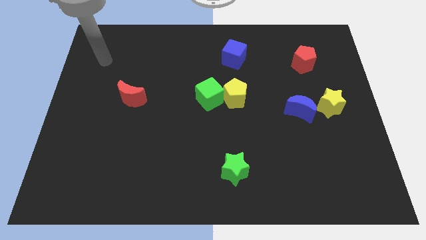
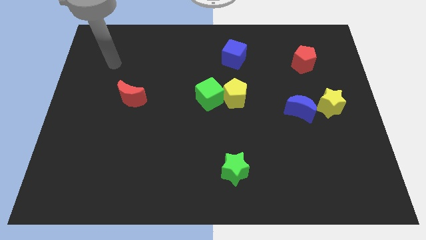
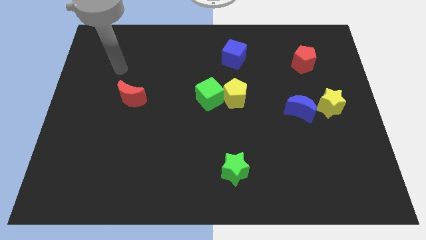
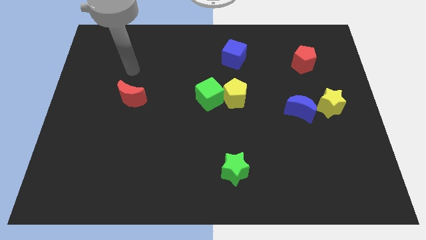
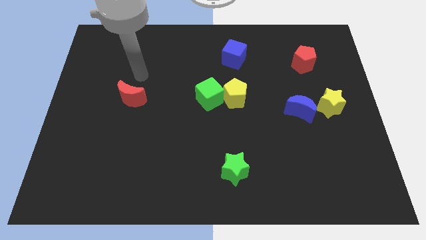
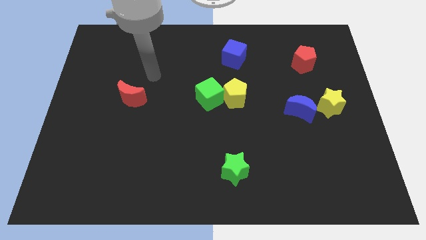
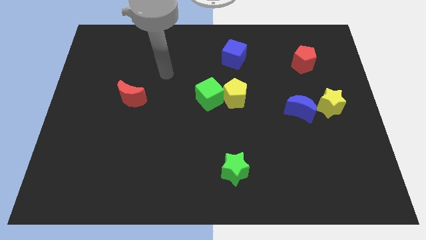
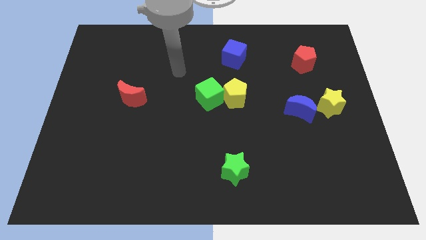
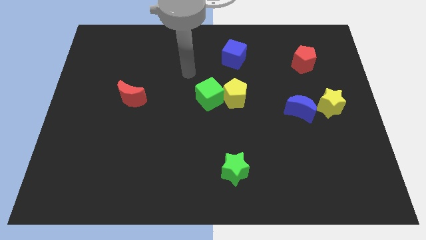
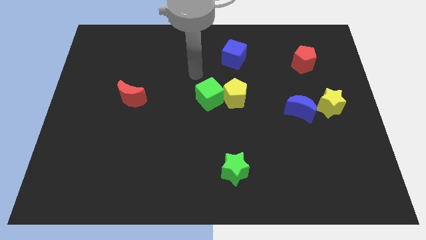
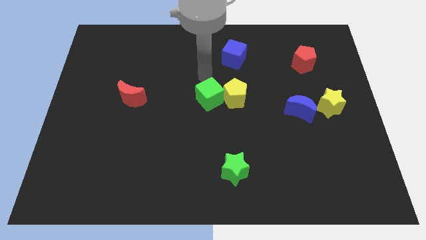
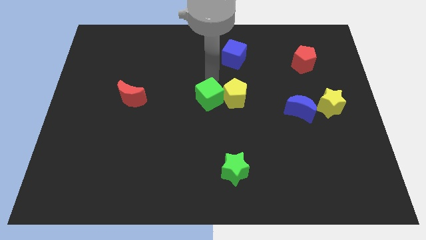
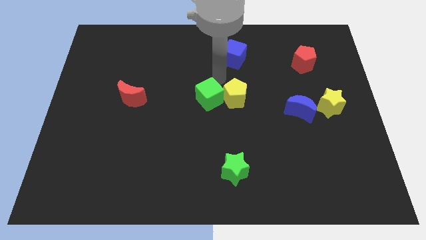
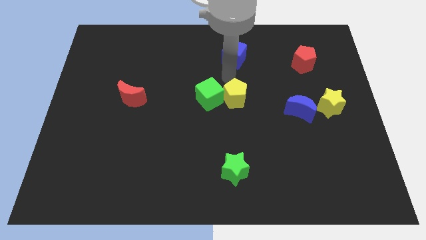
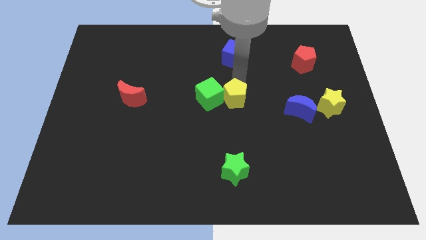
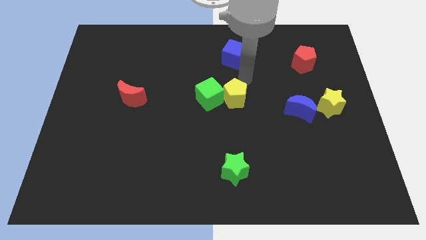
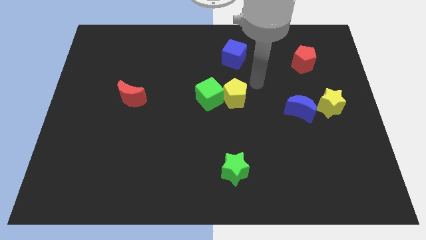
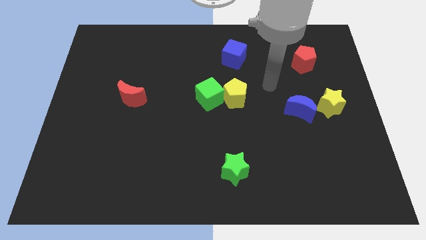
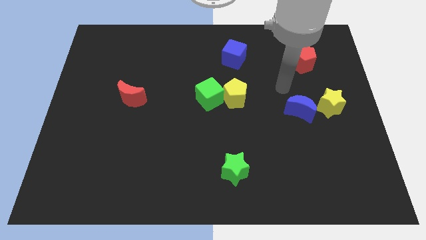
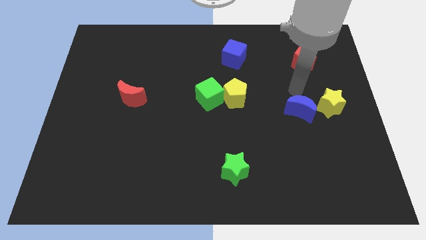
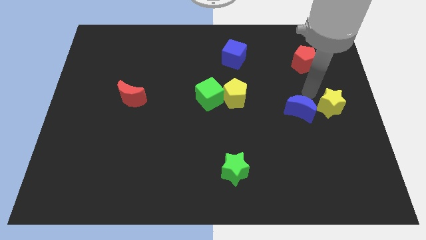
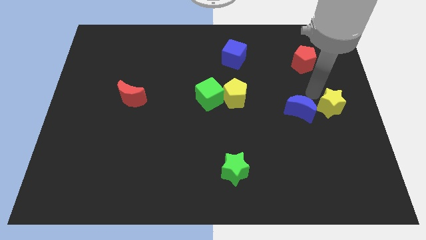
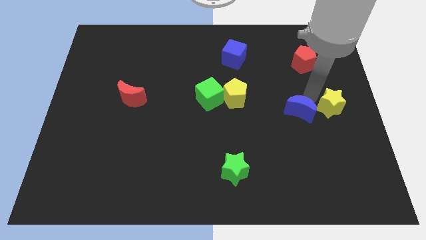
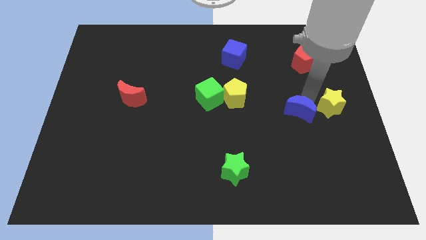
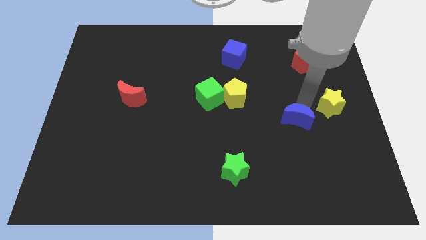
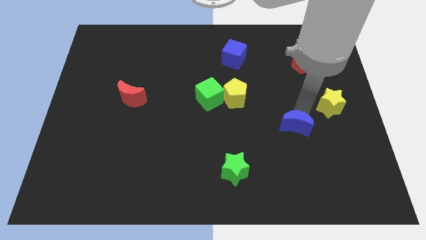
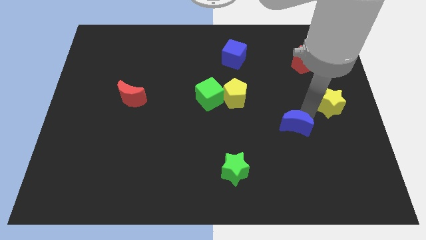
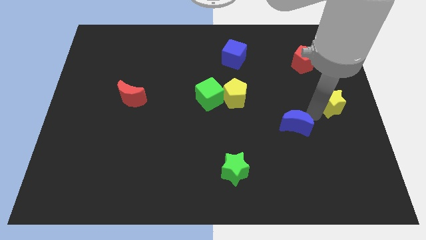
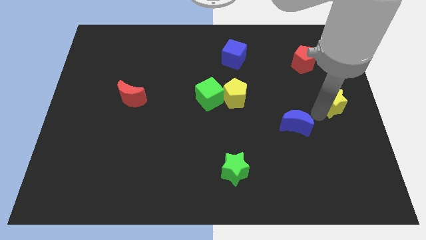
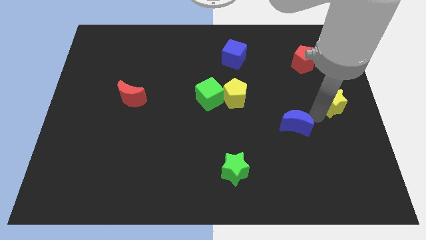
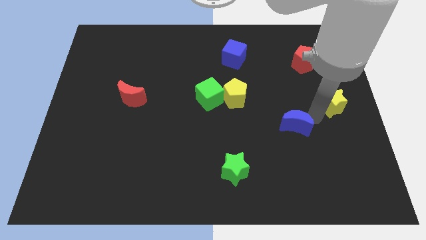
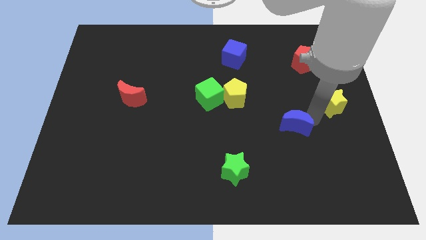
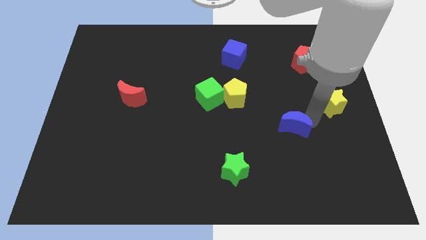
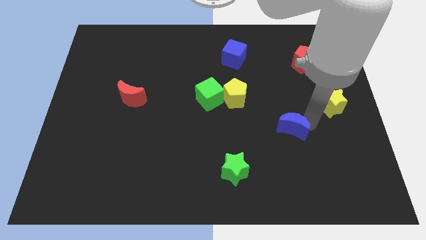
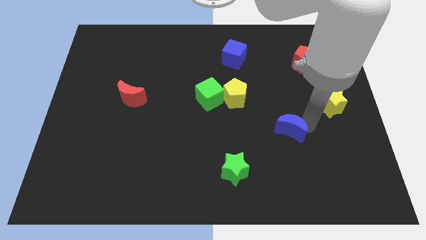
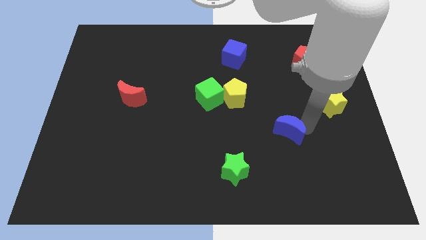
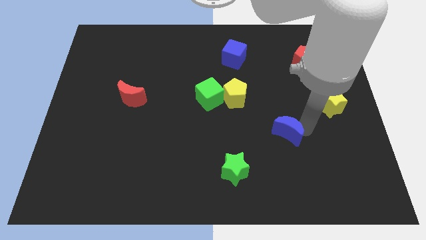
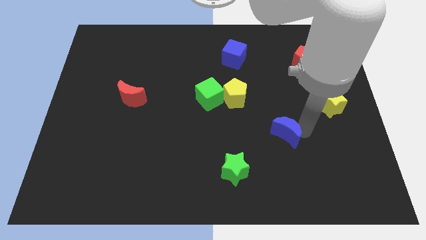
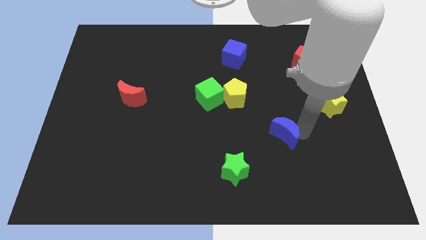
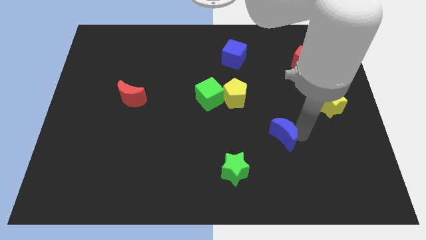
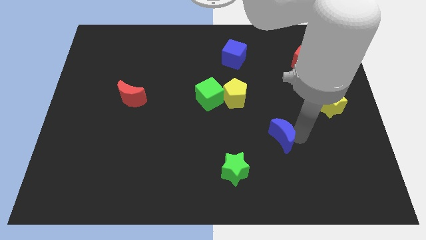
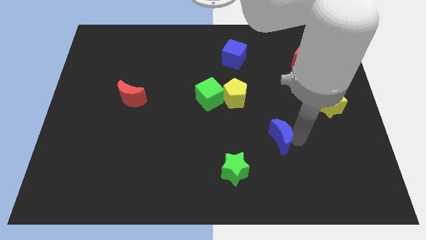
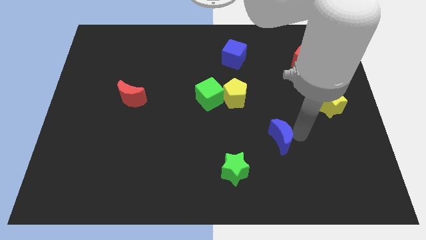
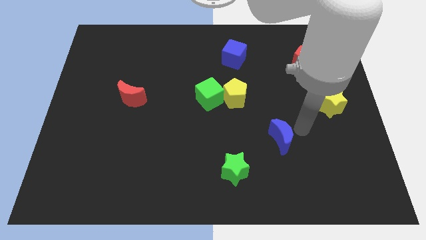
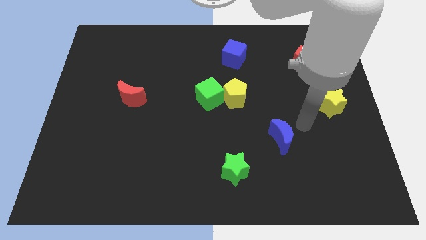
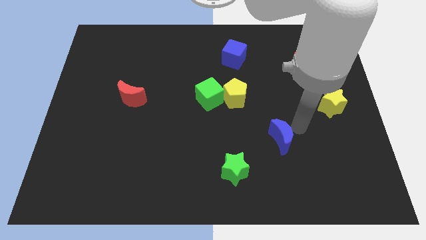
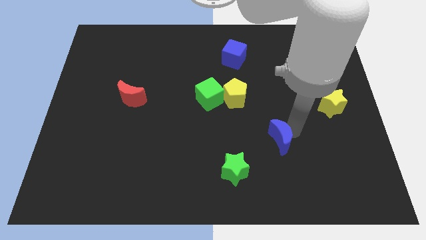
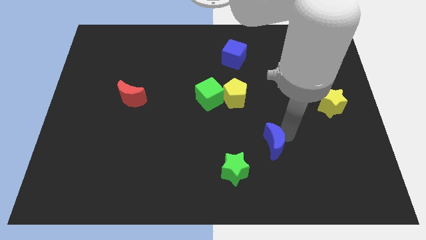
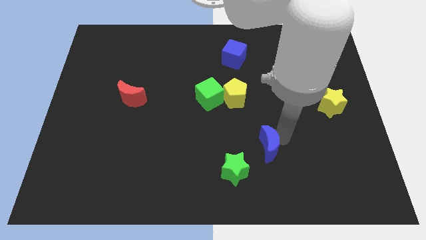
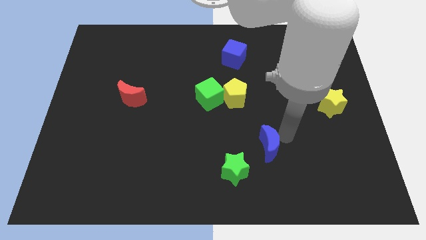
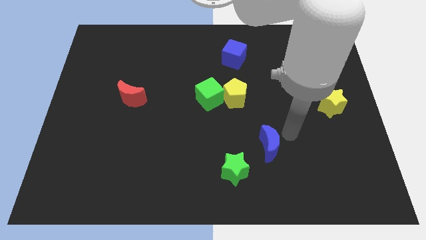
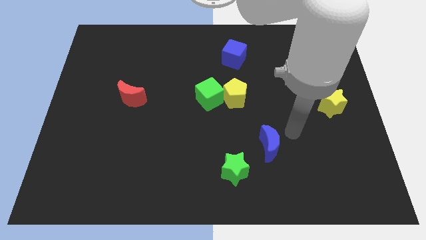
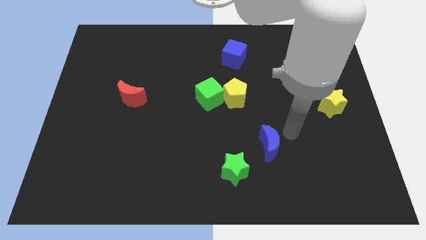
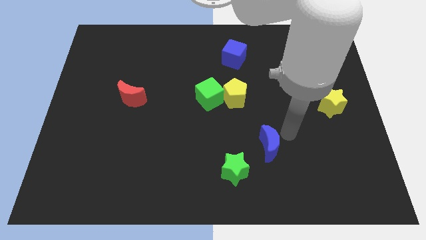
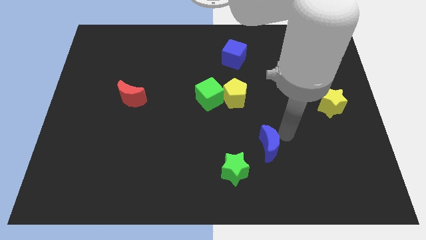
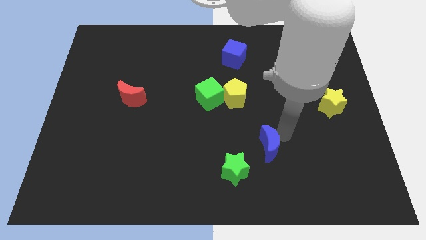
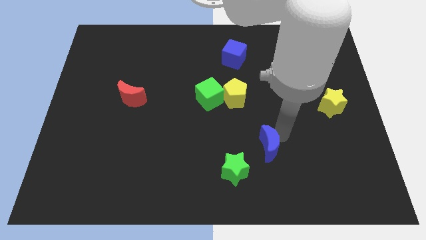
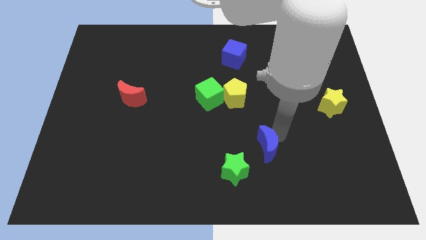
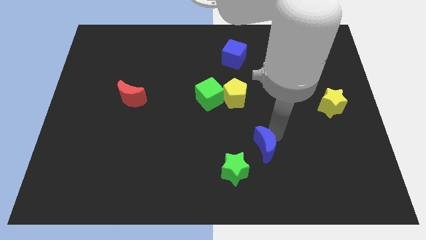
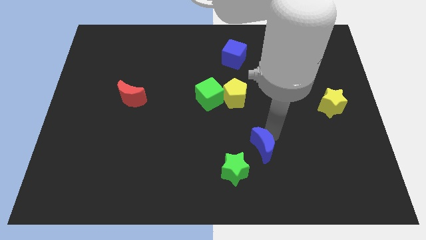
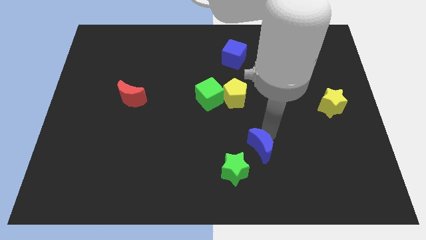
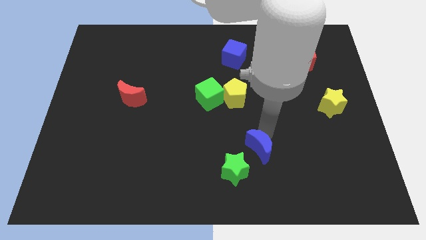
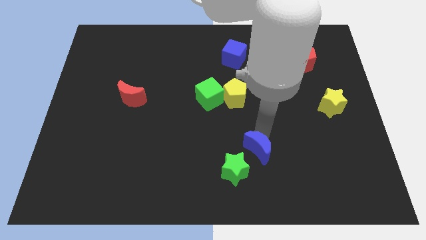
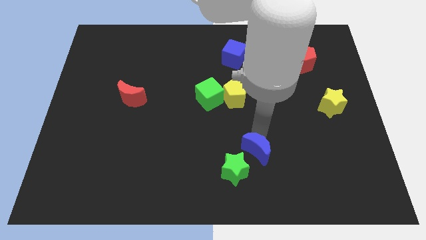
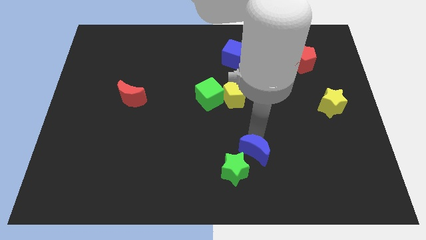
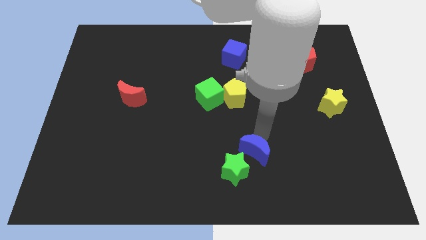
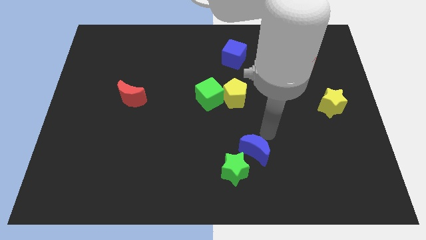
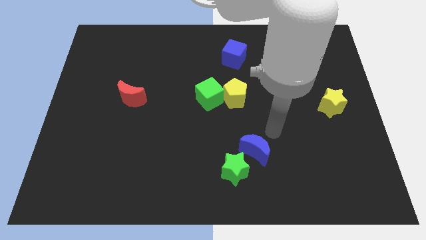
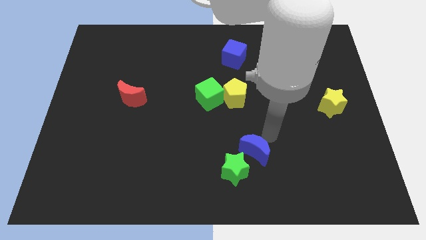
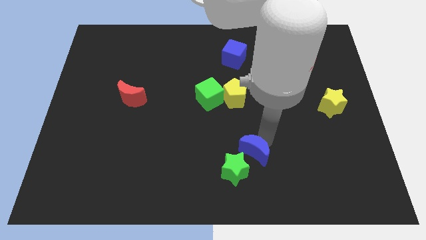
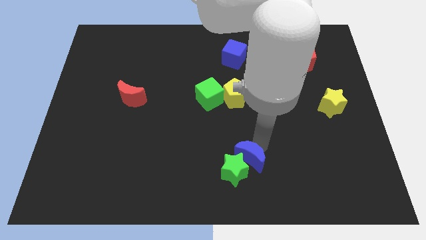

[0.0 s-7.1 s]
push the blue moon to the green star

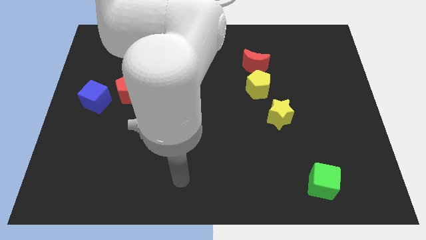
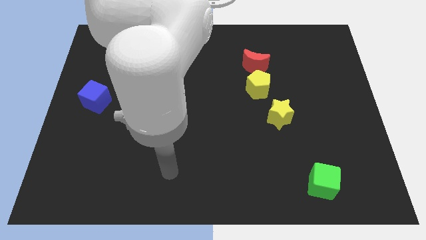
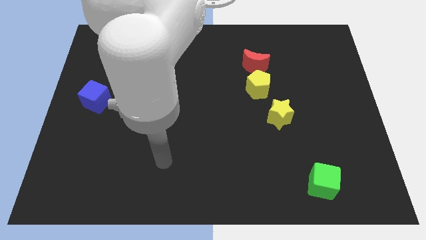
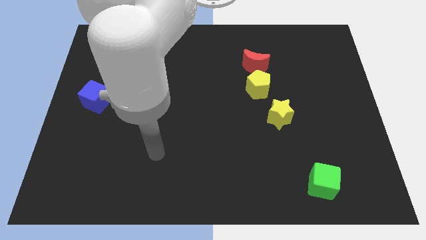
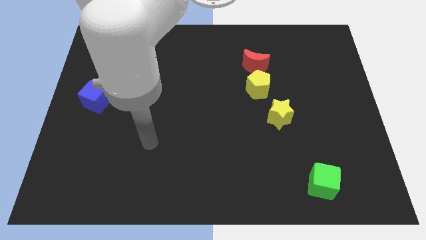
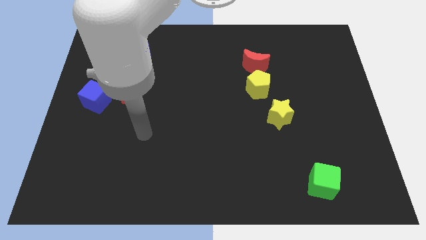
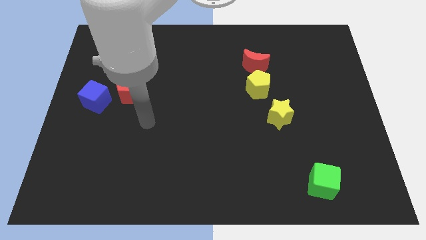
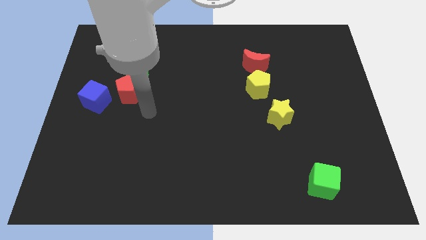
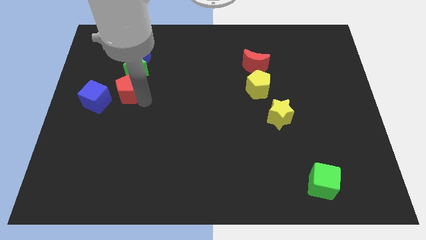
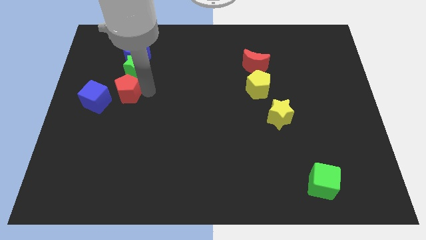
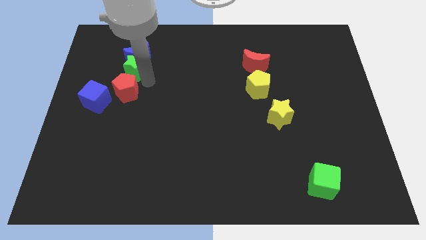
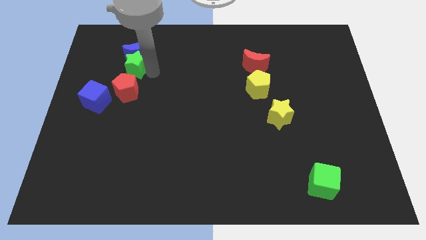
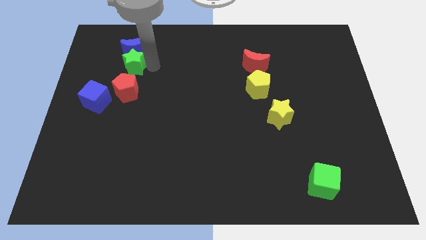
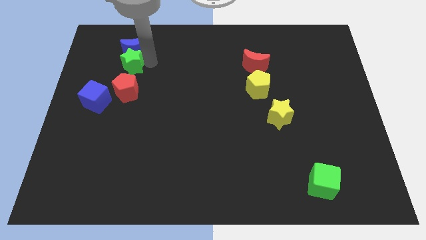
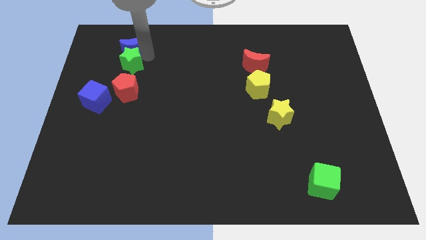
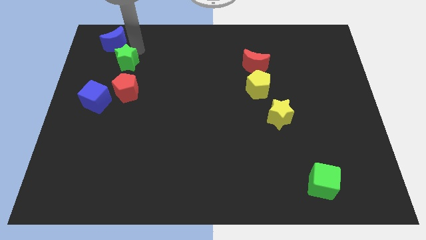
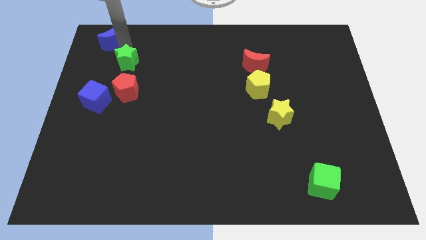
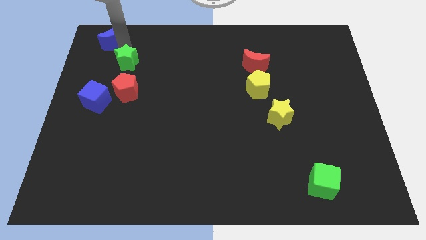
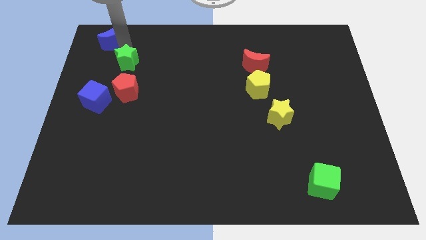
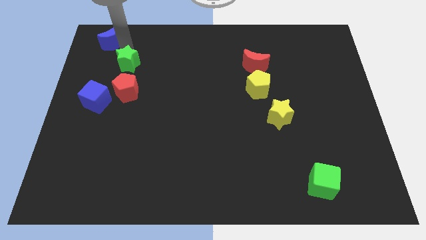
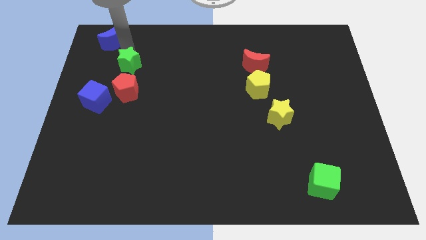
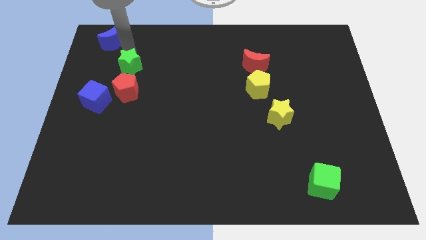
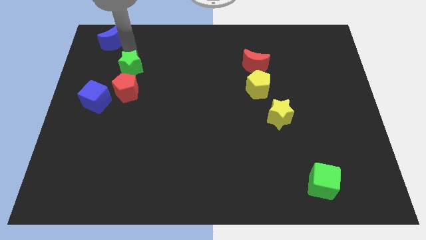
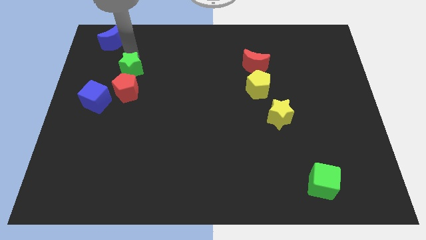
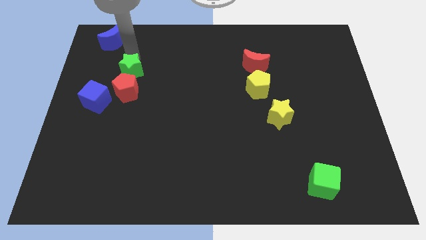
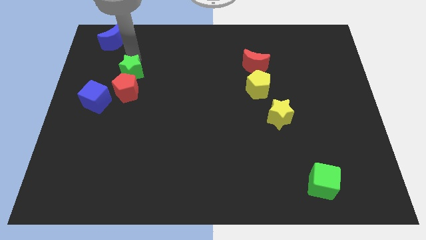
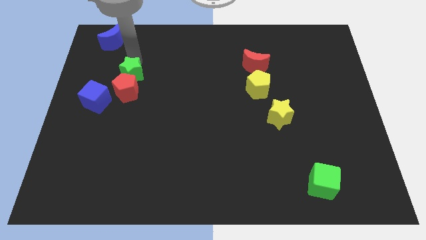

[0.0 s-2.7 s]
push the green star to the red pentagon
